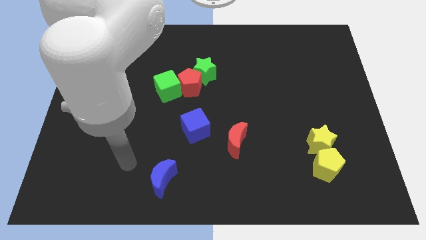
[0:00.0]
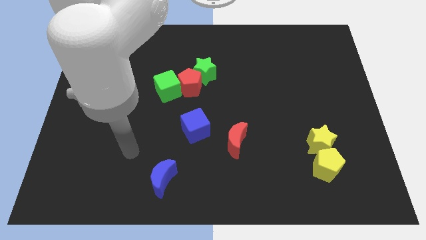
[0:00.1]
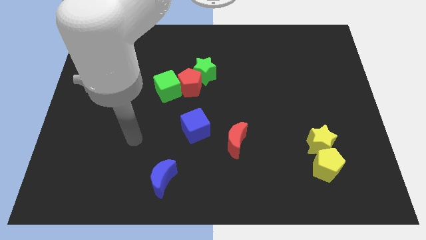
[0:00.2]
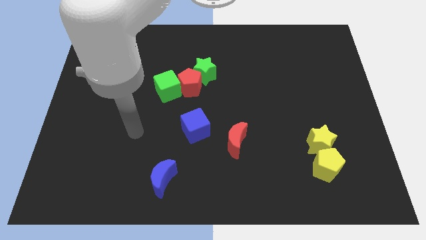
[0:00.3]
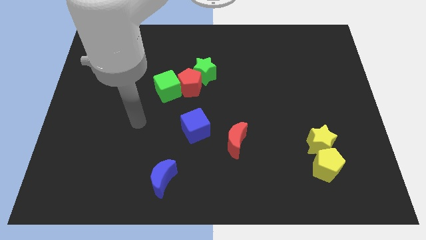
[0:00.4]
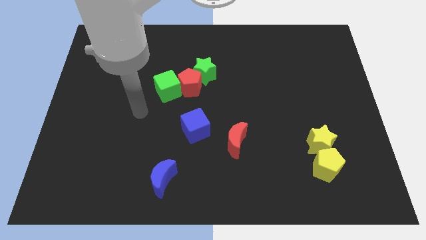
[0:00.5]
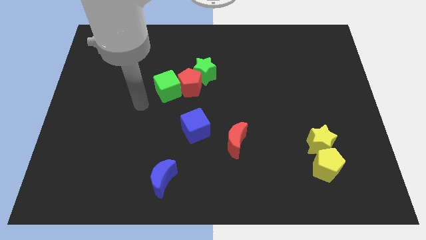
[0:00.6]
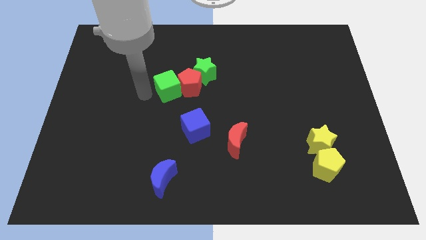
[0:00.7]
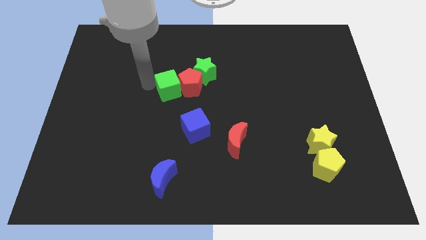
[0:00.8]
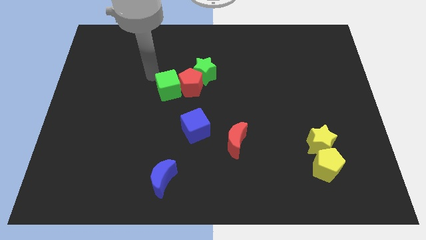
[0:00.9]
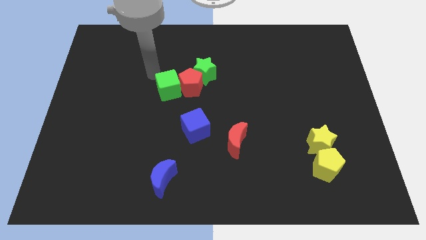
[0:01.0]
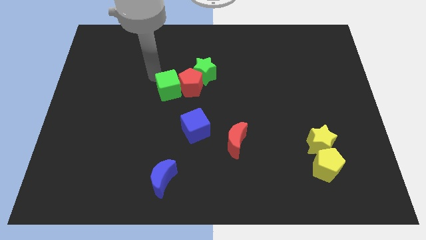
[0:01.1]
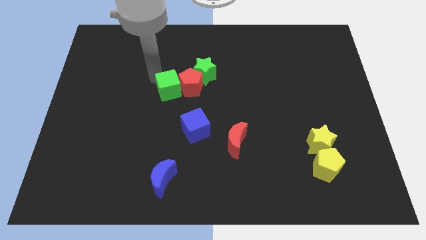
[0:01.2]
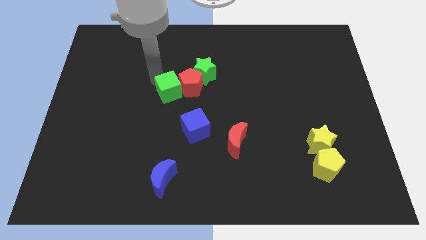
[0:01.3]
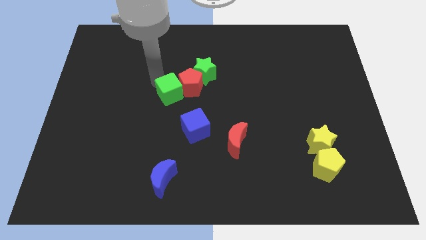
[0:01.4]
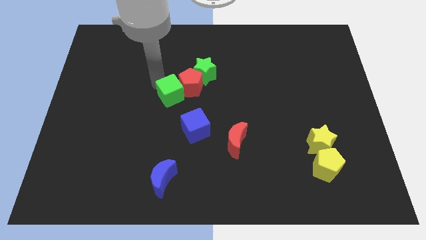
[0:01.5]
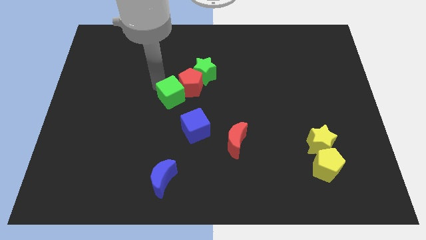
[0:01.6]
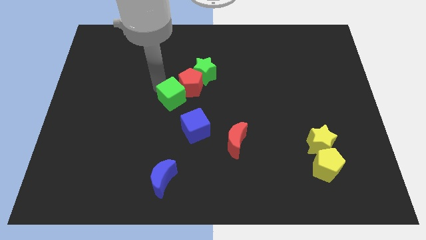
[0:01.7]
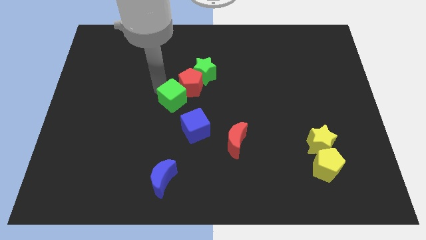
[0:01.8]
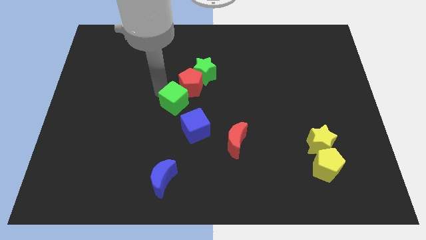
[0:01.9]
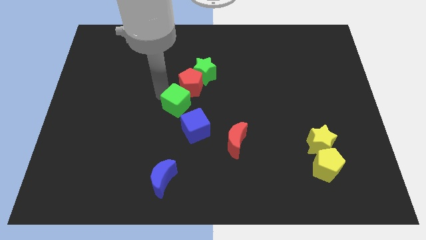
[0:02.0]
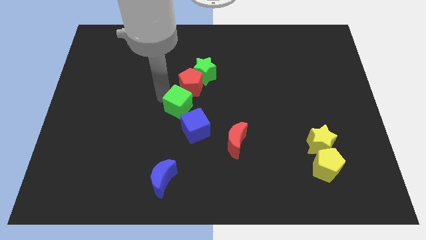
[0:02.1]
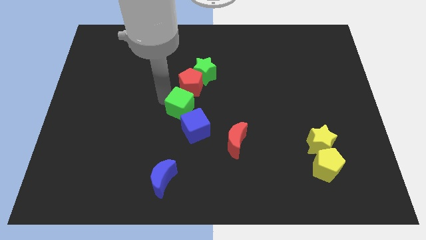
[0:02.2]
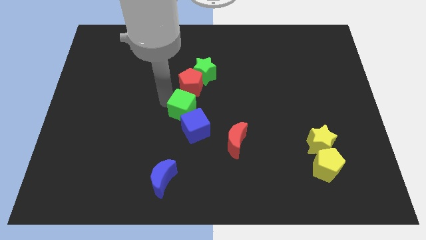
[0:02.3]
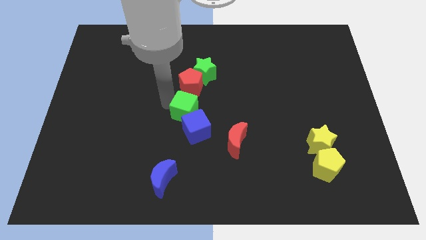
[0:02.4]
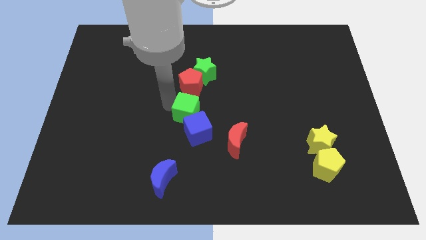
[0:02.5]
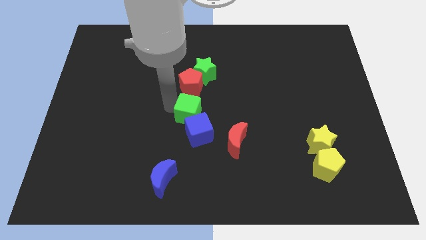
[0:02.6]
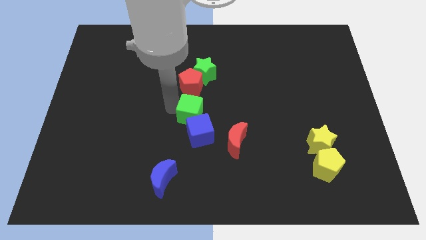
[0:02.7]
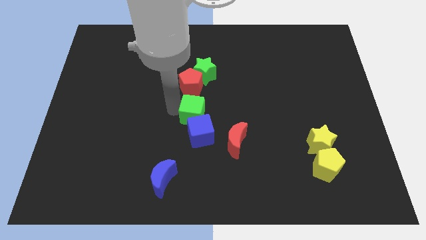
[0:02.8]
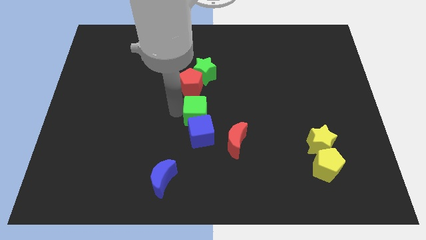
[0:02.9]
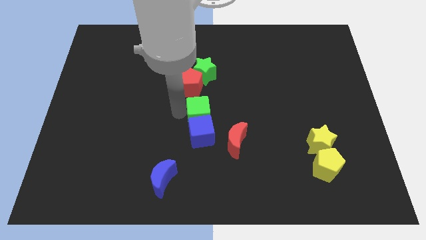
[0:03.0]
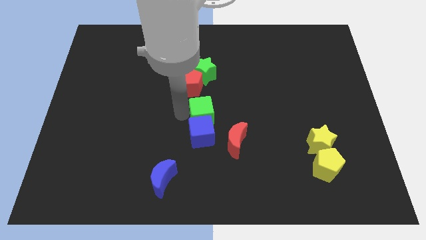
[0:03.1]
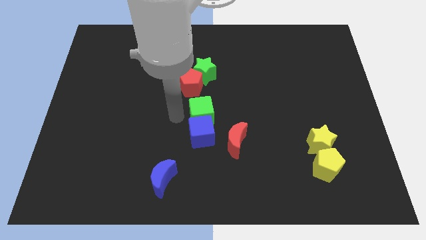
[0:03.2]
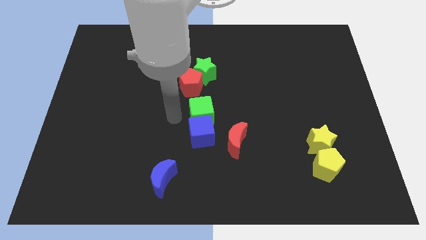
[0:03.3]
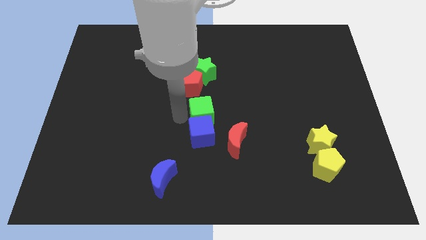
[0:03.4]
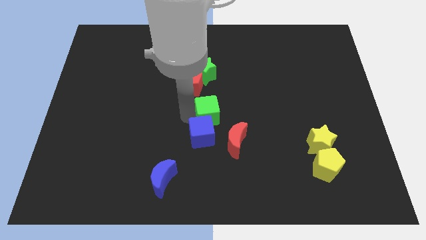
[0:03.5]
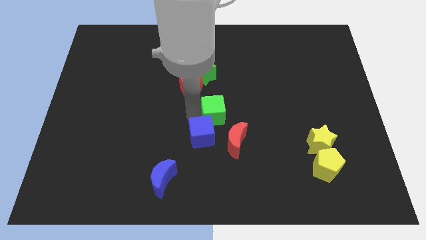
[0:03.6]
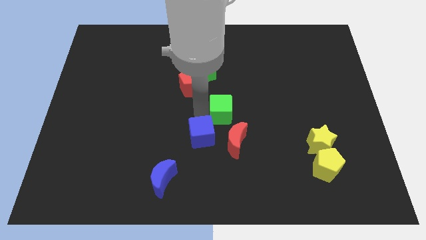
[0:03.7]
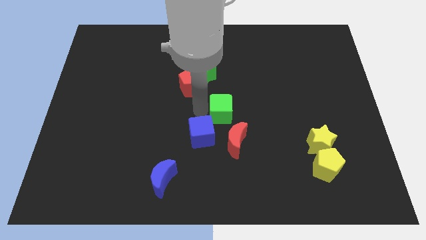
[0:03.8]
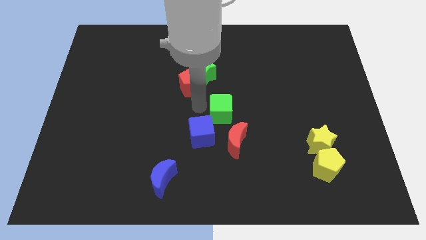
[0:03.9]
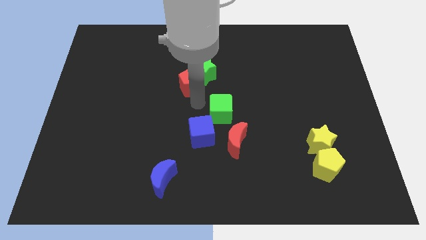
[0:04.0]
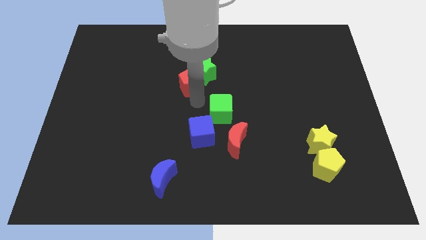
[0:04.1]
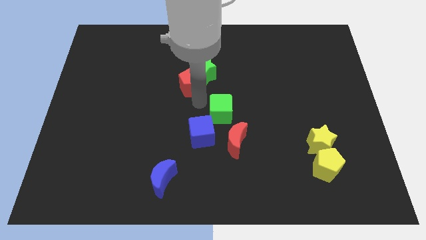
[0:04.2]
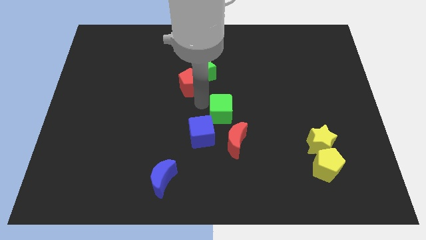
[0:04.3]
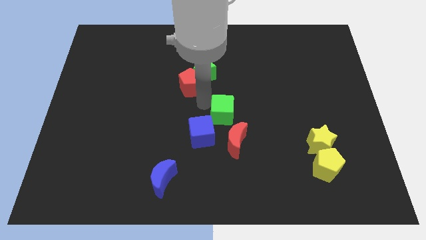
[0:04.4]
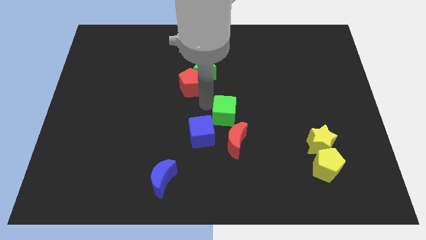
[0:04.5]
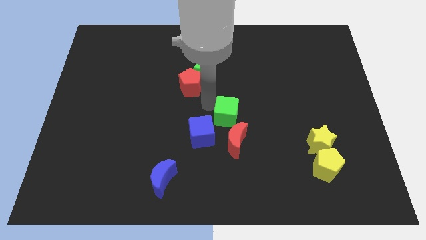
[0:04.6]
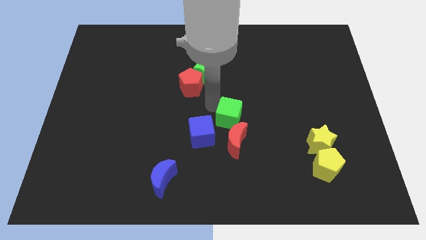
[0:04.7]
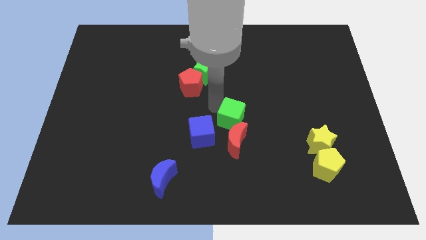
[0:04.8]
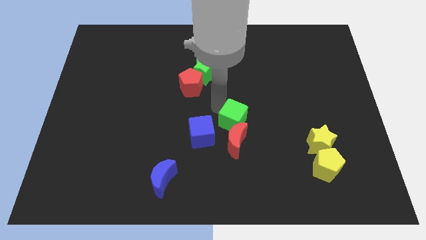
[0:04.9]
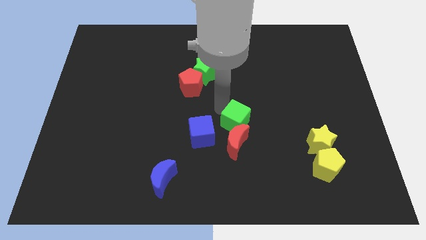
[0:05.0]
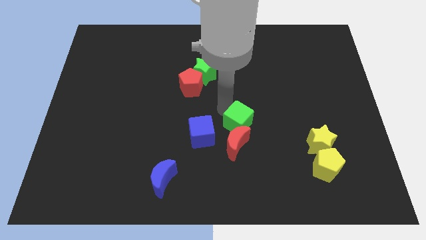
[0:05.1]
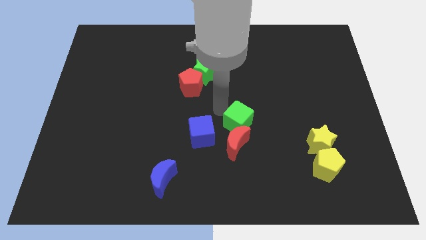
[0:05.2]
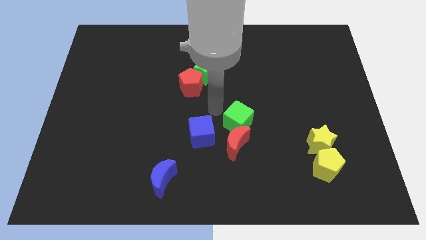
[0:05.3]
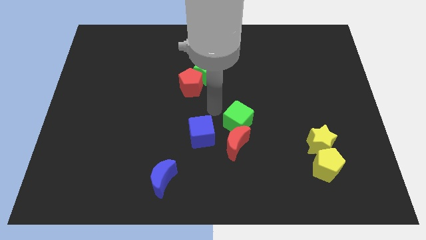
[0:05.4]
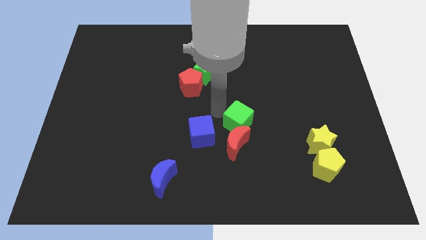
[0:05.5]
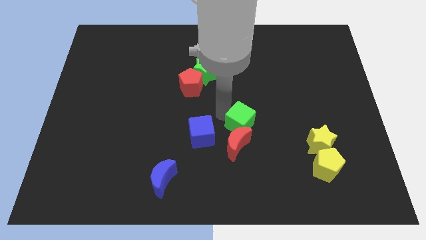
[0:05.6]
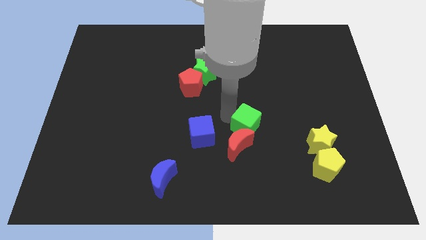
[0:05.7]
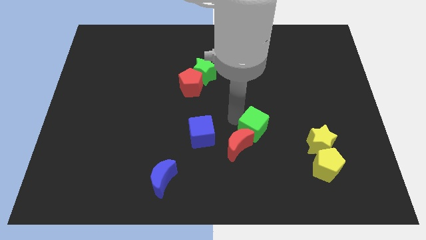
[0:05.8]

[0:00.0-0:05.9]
push the green cube diagonally downwards and to the right

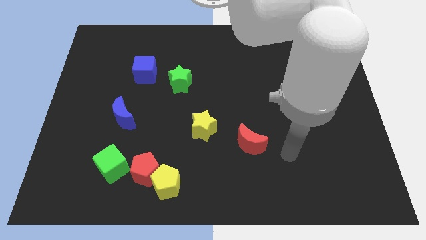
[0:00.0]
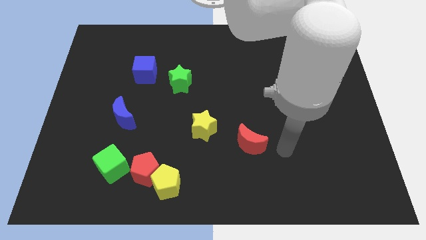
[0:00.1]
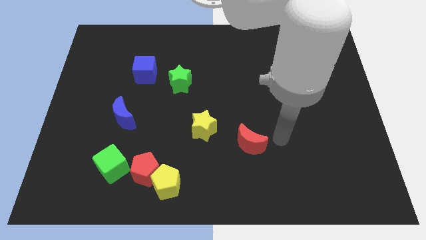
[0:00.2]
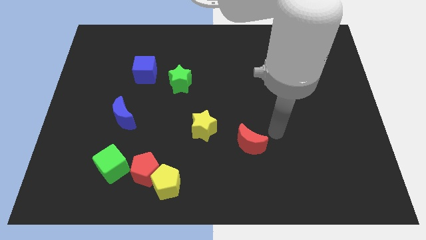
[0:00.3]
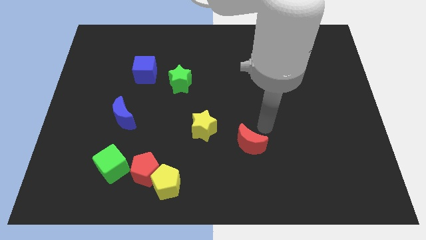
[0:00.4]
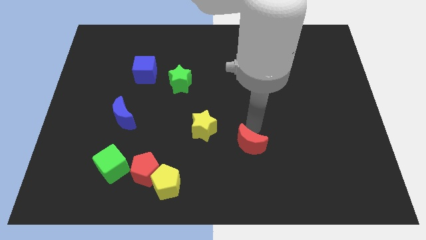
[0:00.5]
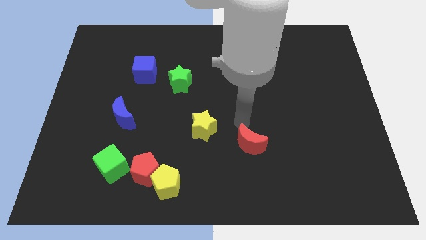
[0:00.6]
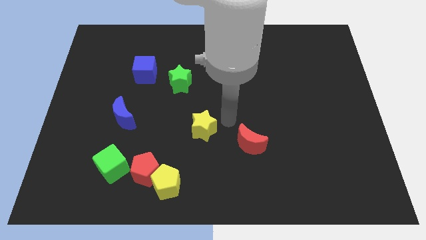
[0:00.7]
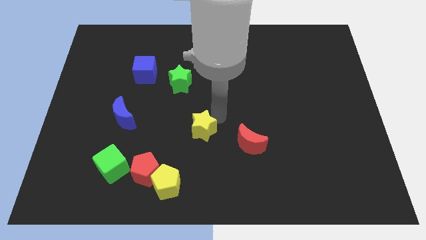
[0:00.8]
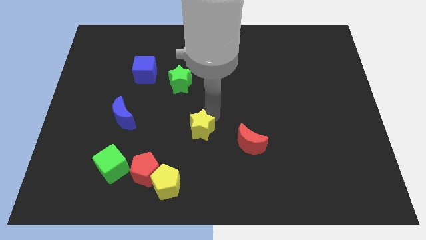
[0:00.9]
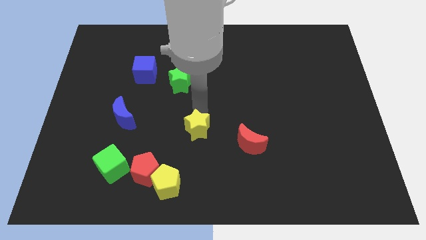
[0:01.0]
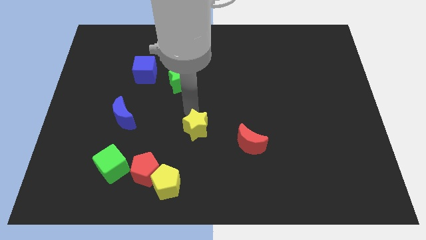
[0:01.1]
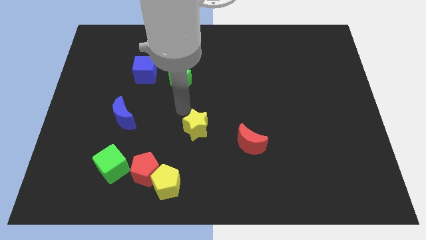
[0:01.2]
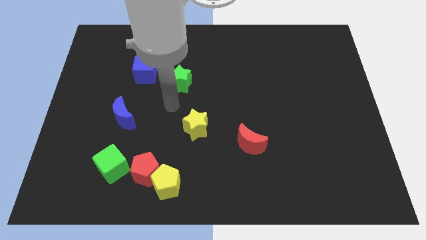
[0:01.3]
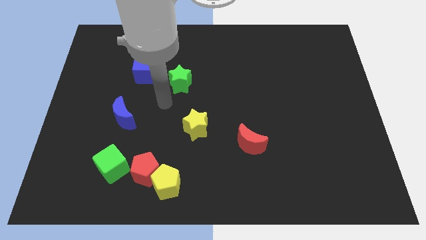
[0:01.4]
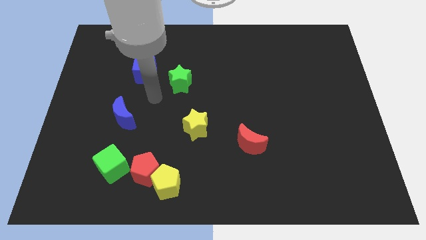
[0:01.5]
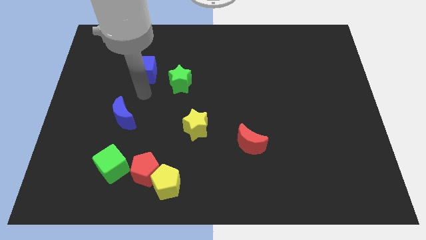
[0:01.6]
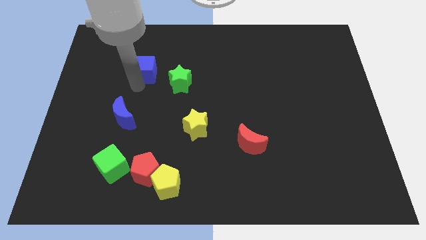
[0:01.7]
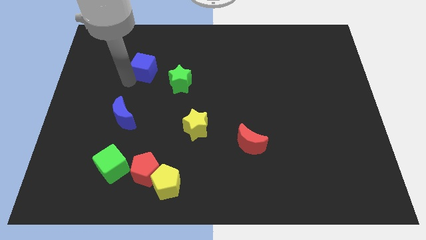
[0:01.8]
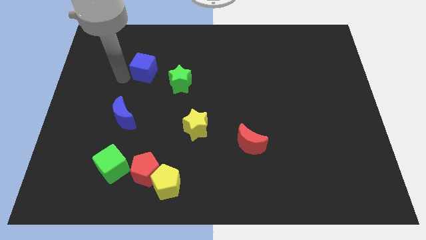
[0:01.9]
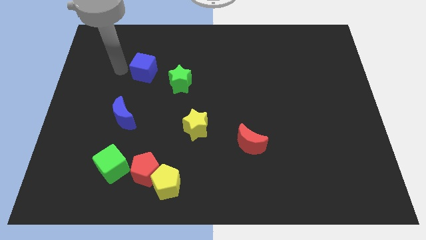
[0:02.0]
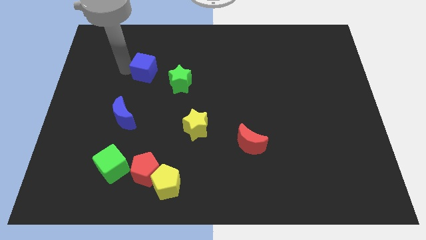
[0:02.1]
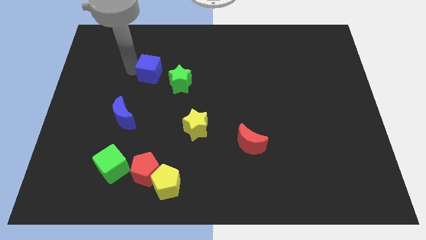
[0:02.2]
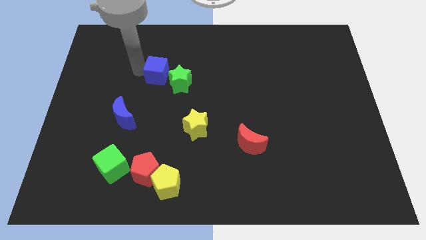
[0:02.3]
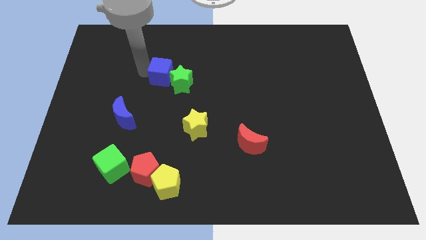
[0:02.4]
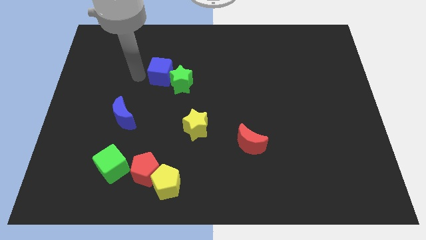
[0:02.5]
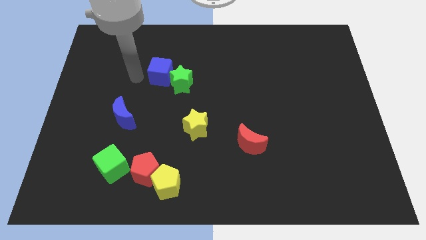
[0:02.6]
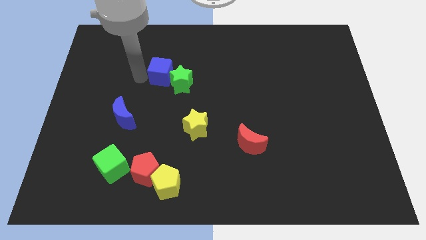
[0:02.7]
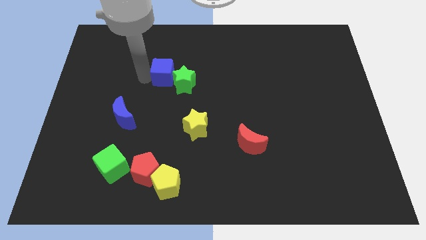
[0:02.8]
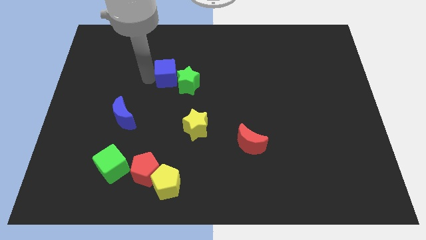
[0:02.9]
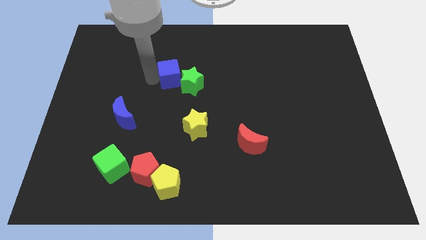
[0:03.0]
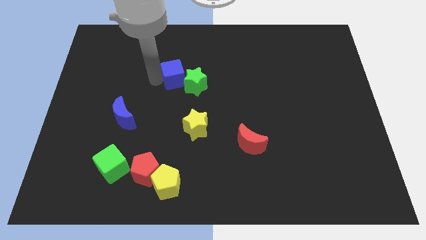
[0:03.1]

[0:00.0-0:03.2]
slightly move the blue cube to the right
